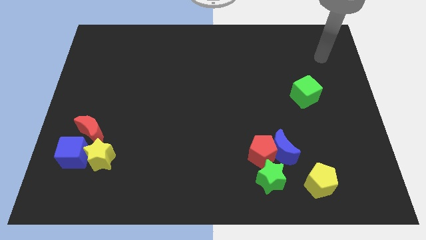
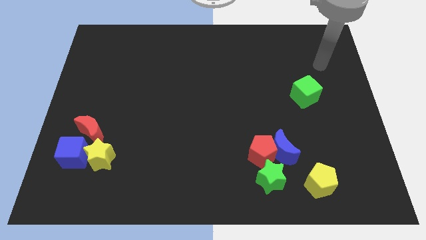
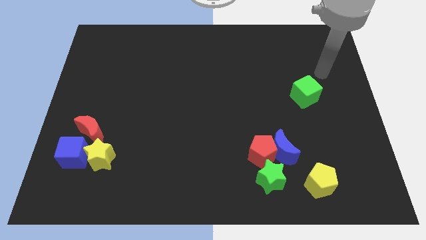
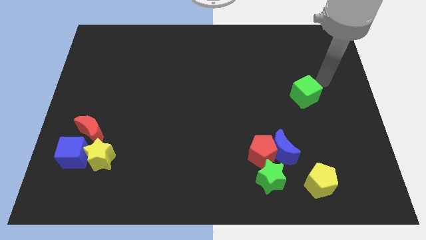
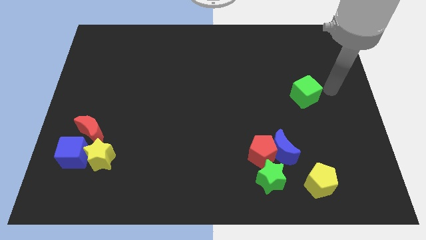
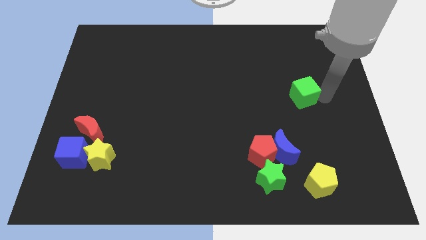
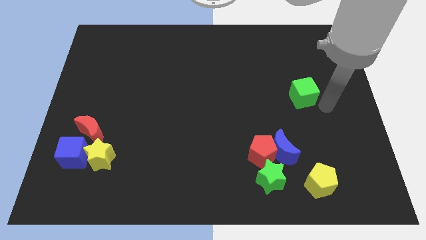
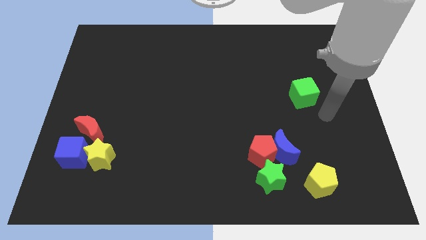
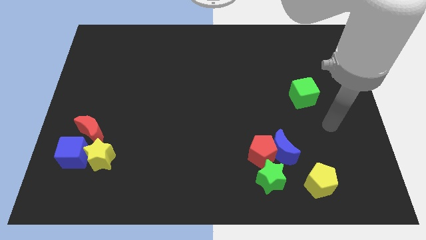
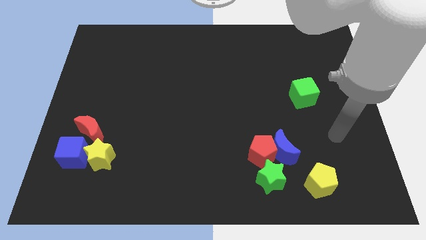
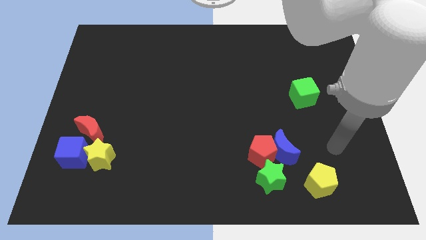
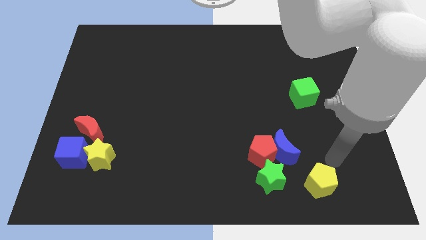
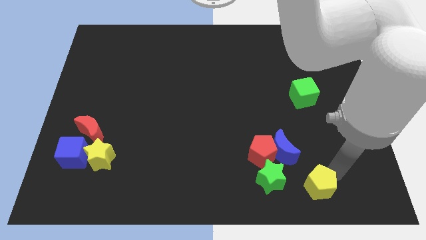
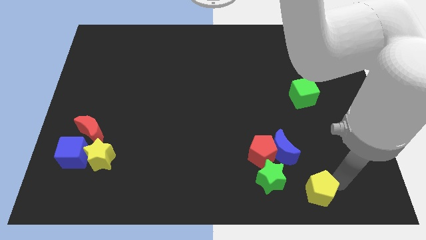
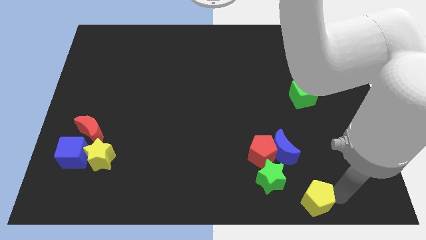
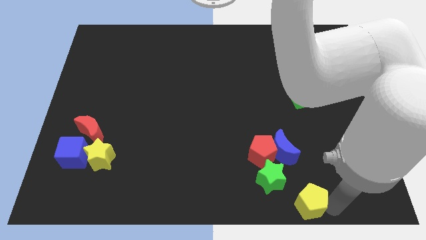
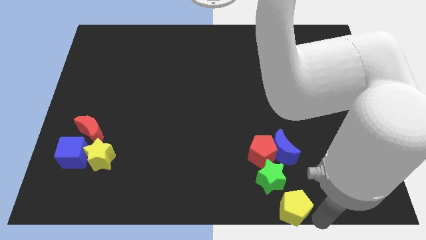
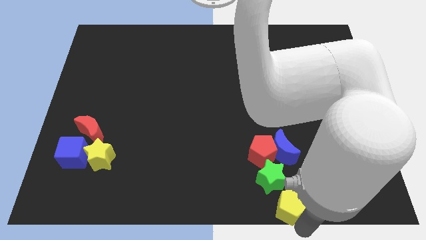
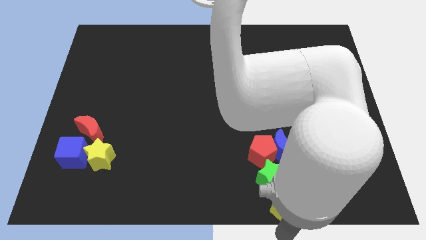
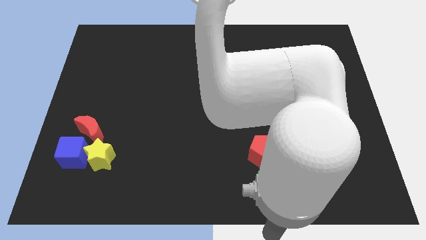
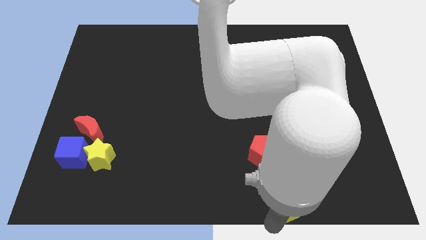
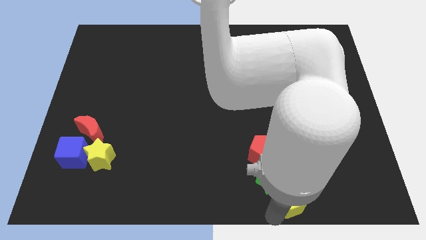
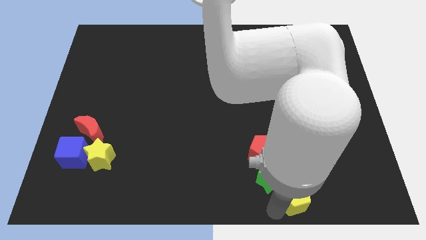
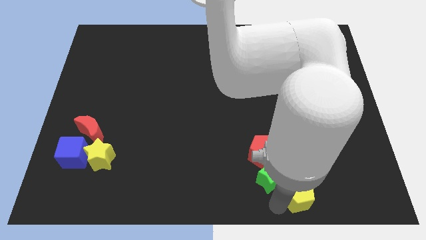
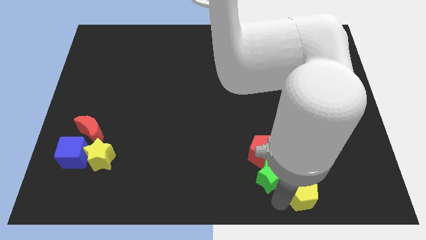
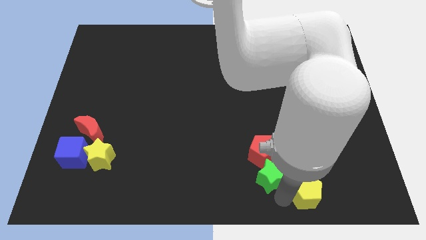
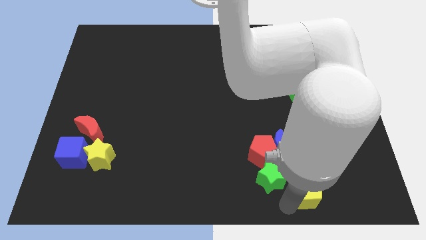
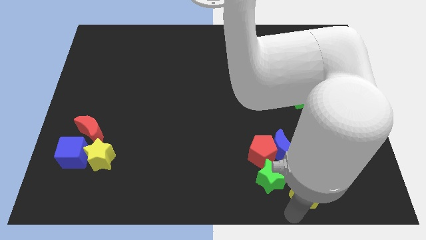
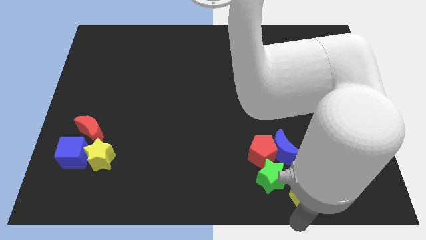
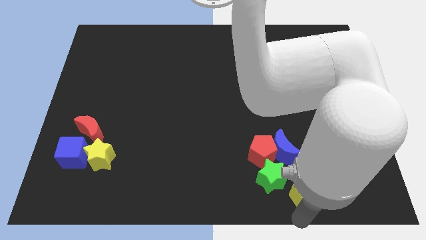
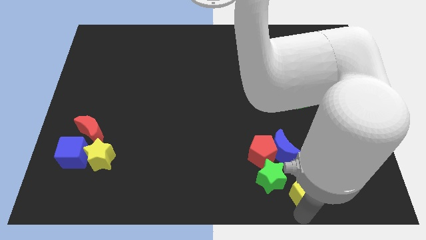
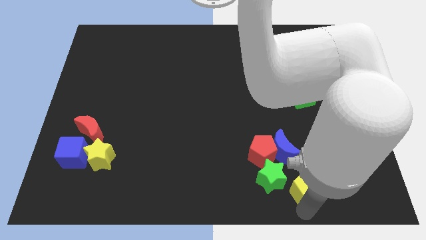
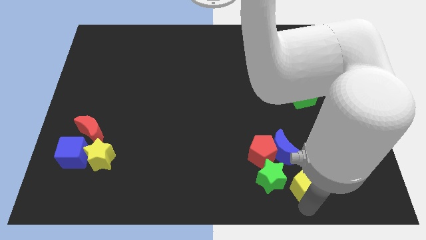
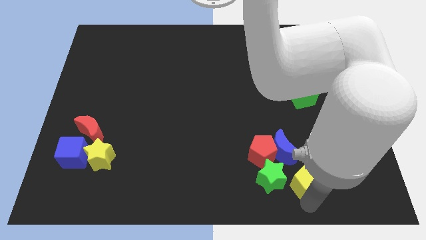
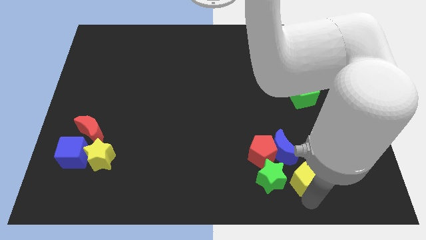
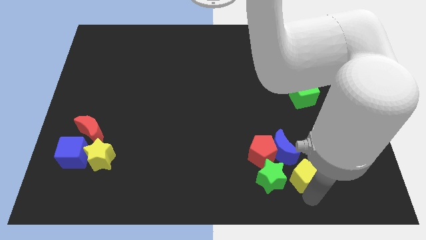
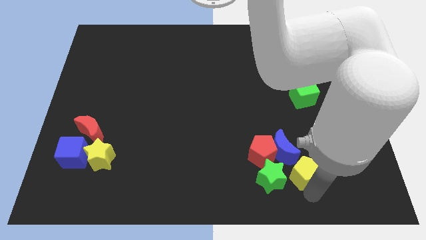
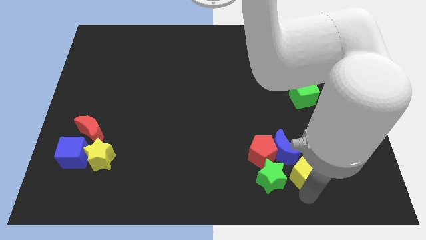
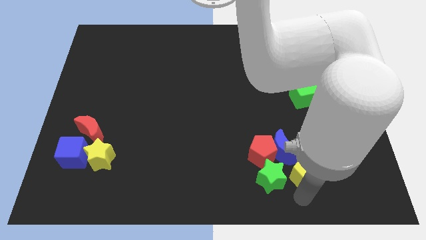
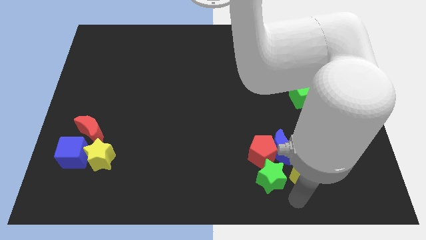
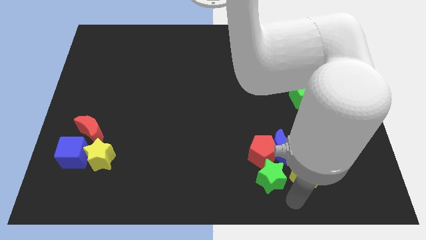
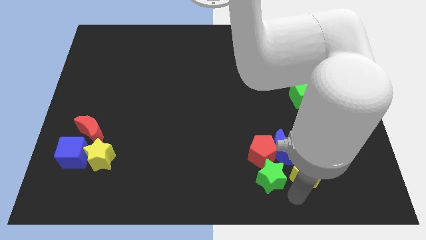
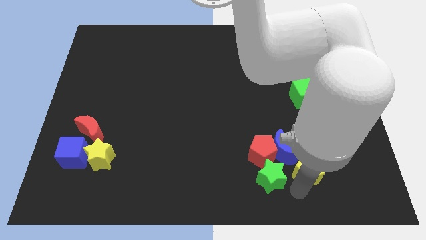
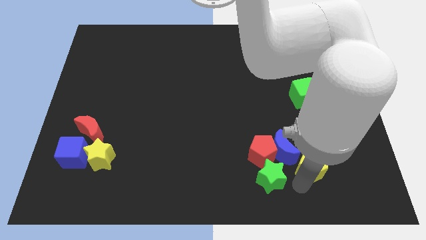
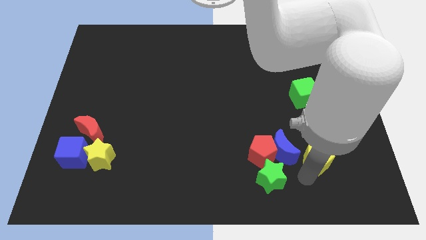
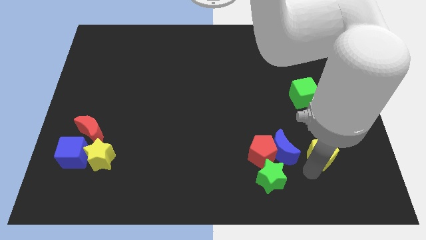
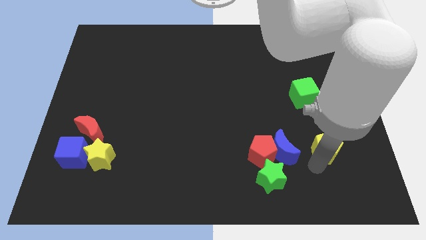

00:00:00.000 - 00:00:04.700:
push the yellow pentagon upwards slightly

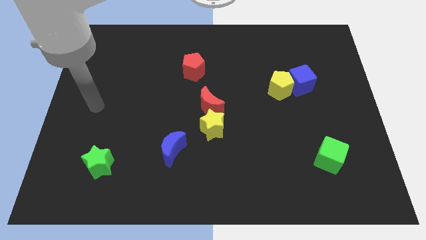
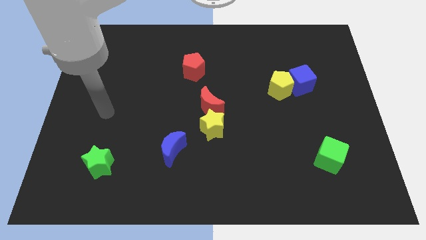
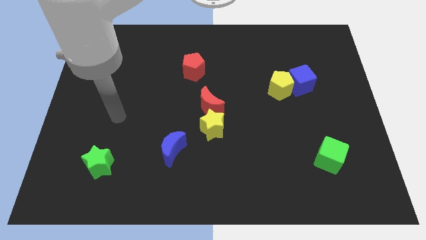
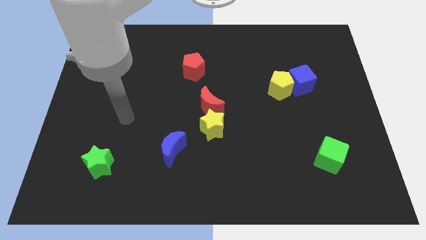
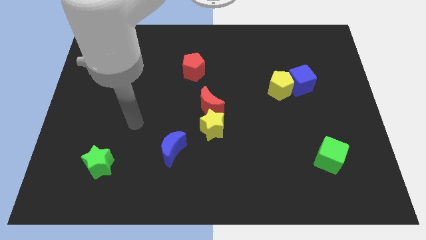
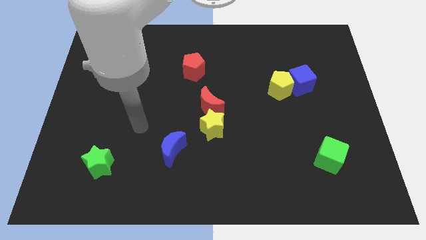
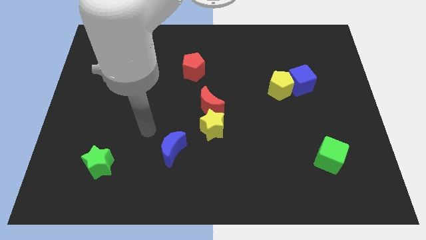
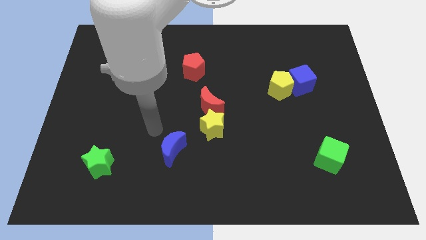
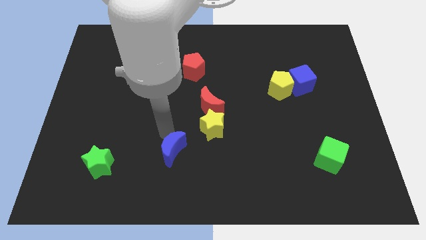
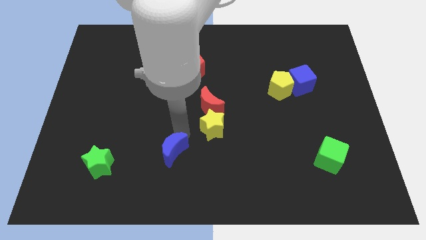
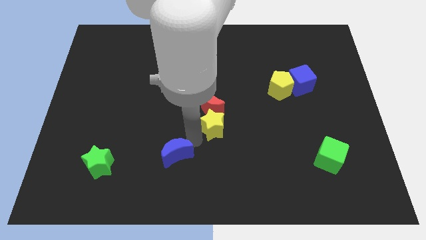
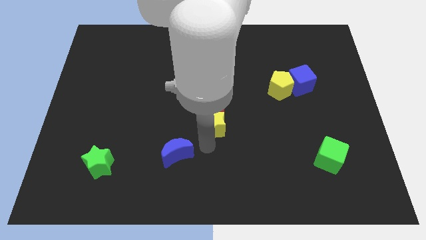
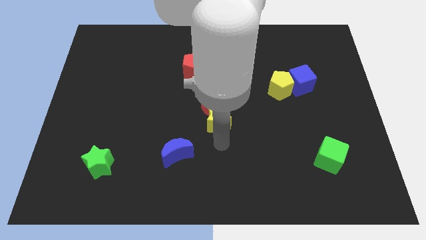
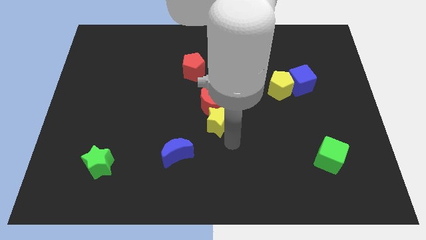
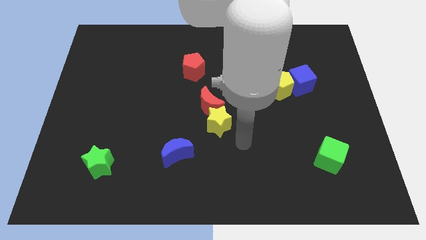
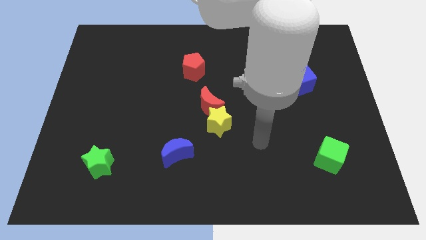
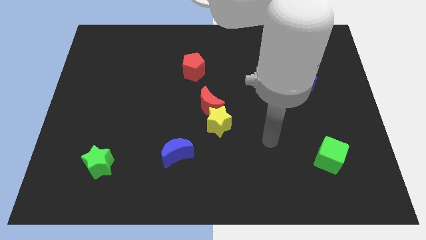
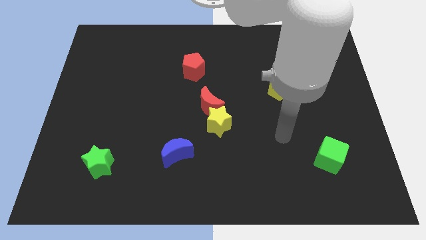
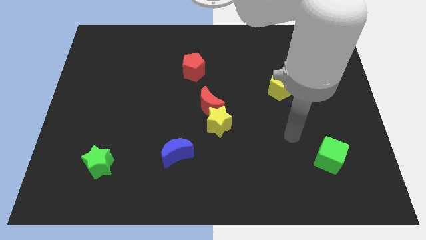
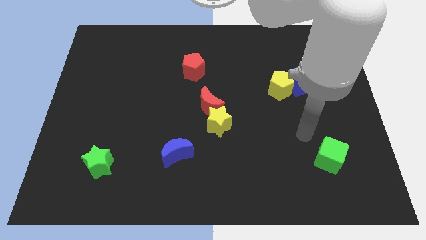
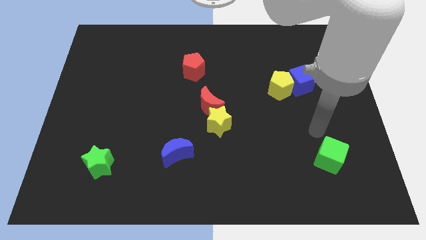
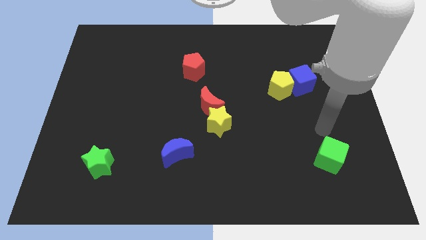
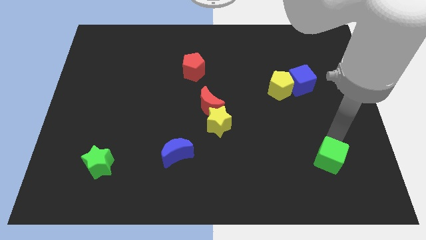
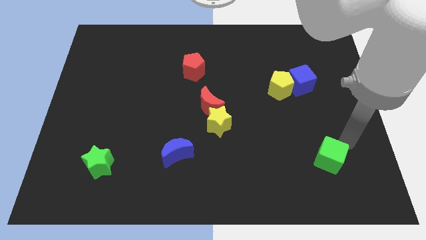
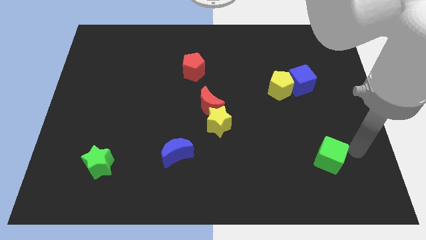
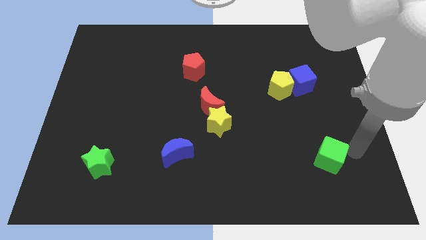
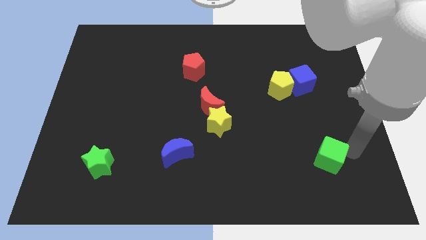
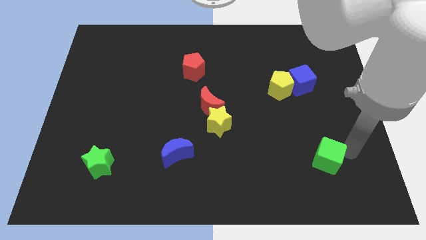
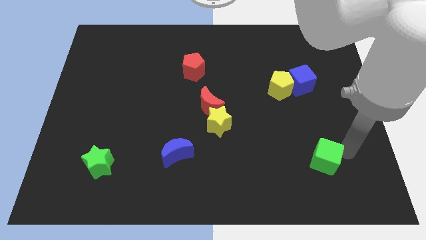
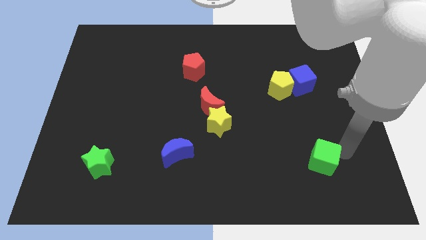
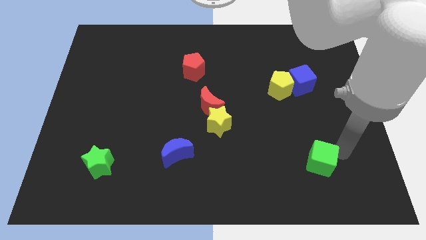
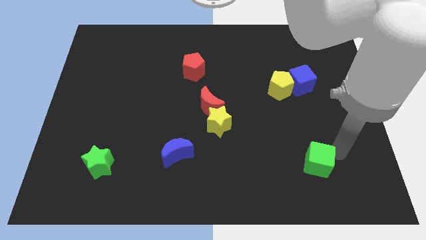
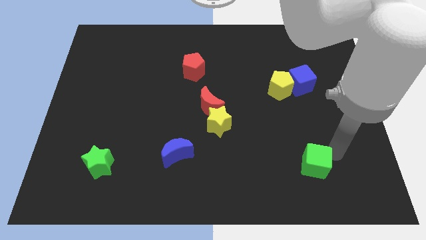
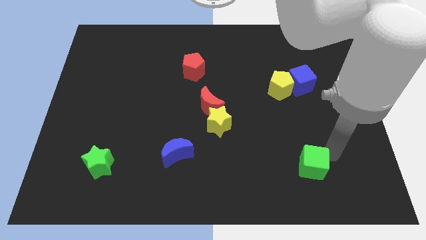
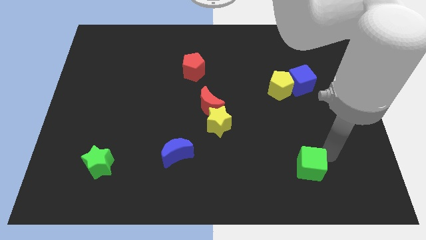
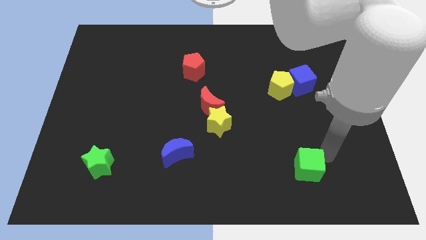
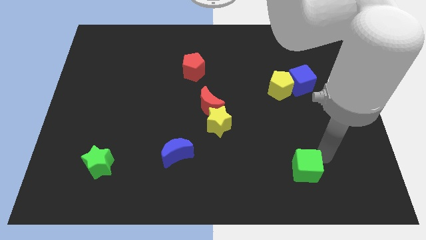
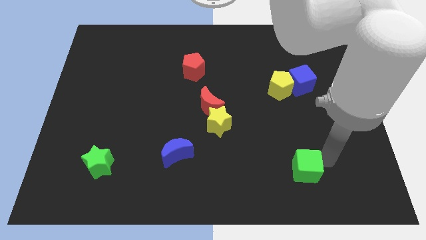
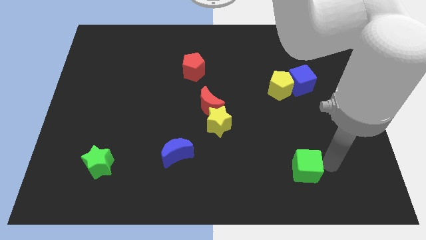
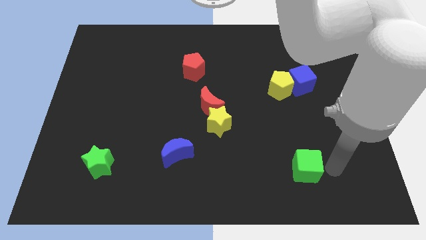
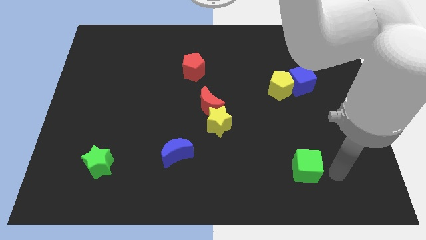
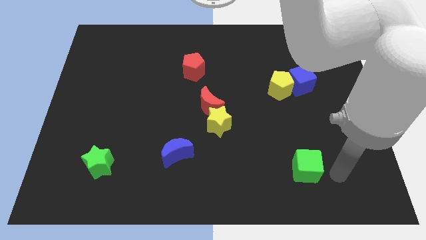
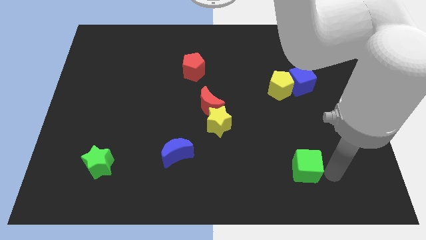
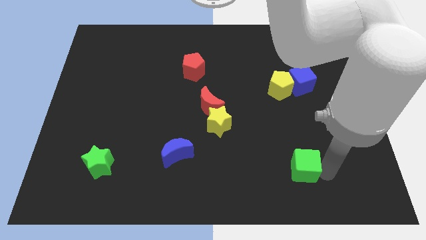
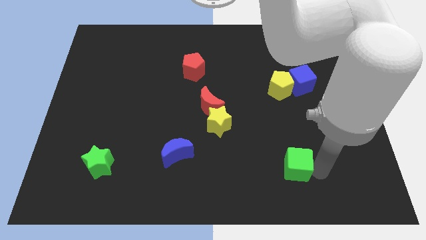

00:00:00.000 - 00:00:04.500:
push the green cube a bit left
